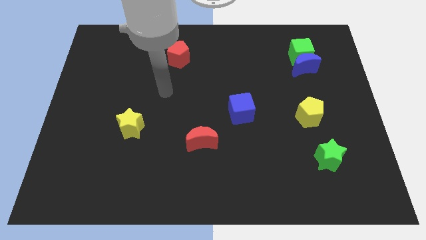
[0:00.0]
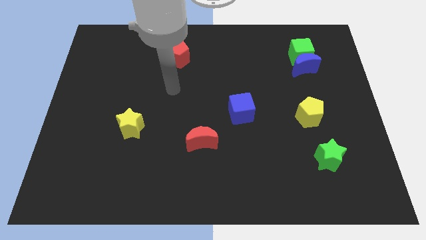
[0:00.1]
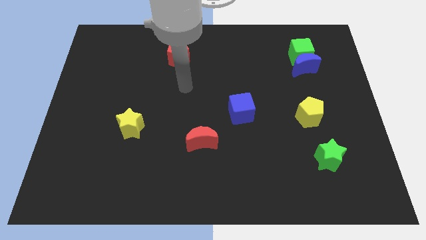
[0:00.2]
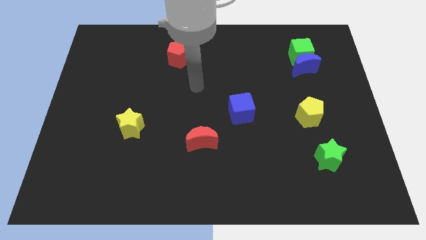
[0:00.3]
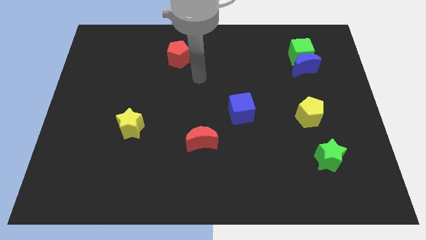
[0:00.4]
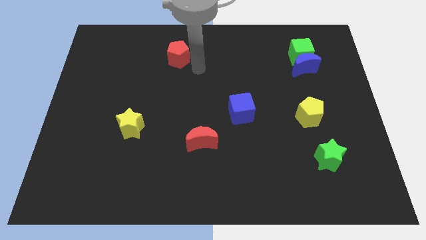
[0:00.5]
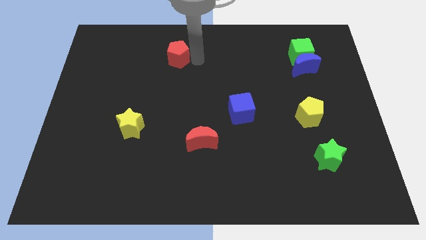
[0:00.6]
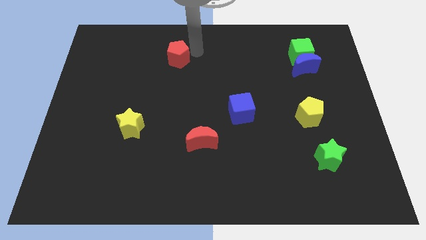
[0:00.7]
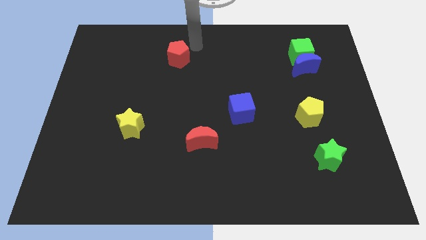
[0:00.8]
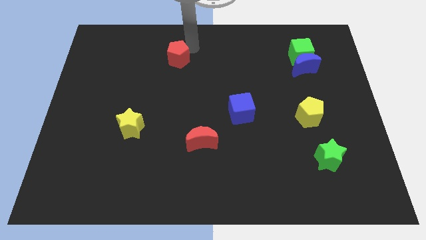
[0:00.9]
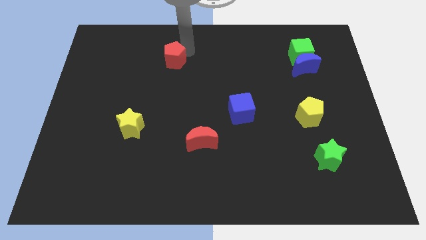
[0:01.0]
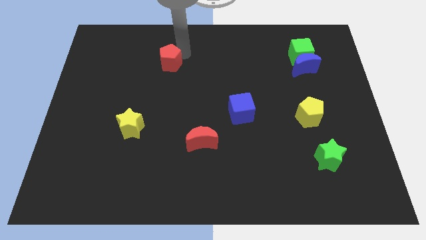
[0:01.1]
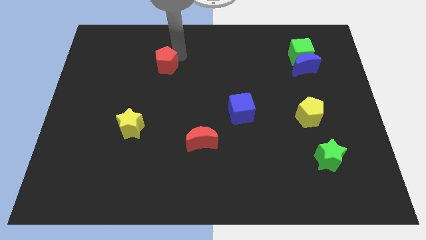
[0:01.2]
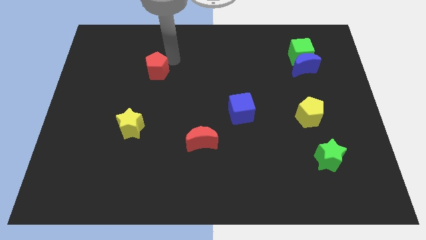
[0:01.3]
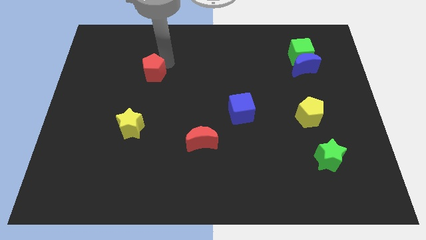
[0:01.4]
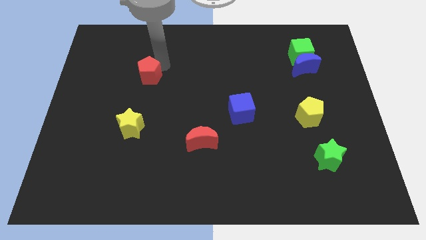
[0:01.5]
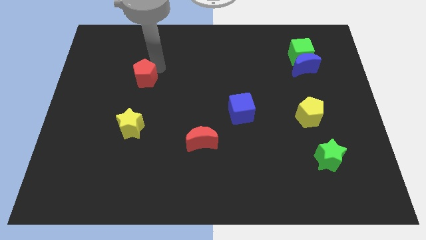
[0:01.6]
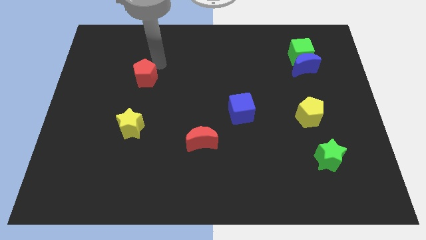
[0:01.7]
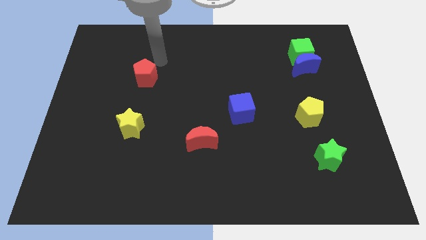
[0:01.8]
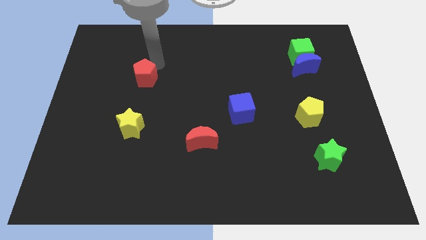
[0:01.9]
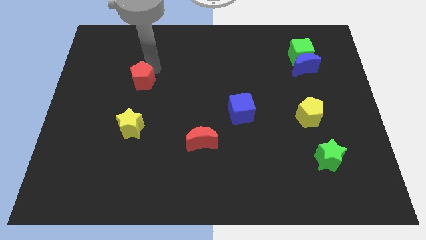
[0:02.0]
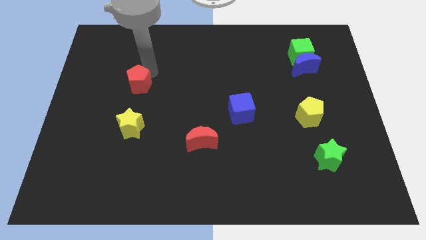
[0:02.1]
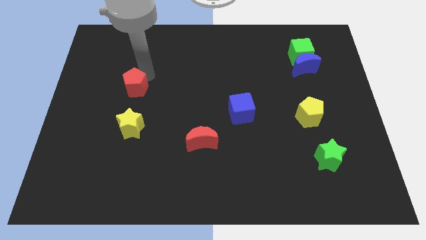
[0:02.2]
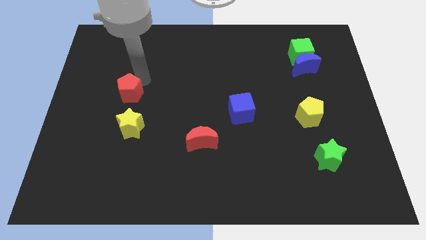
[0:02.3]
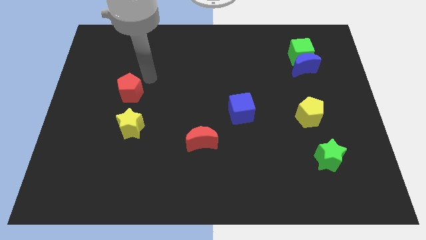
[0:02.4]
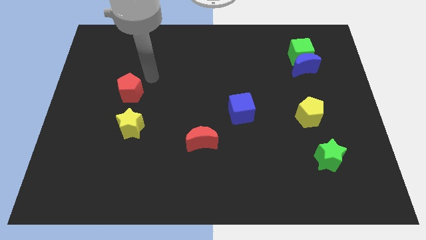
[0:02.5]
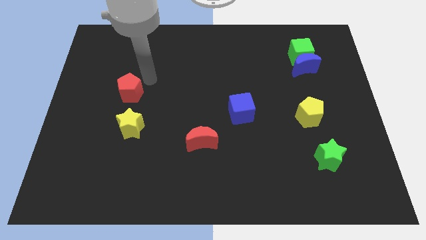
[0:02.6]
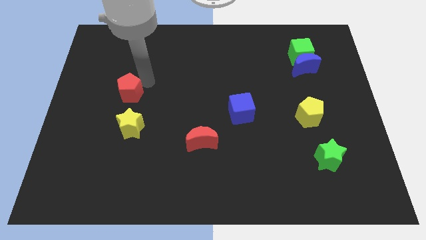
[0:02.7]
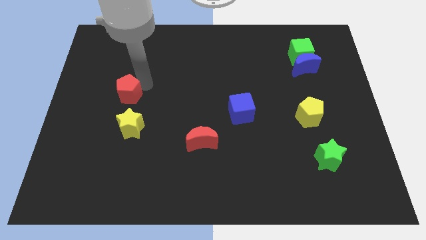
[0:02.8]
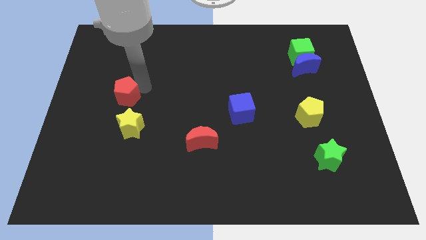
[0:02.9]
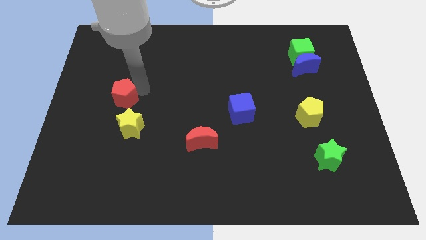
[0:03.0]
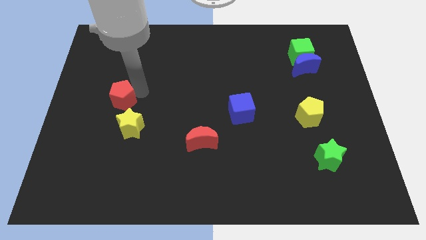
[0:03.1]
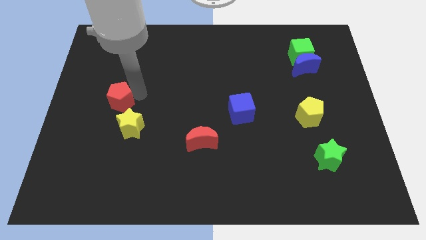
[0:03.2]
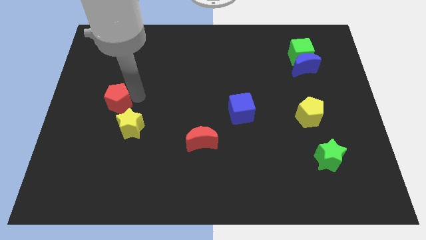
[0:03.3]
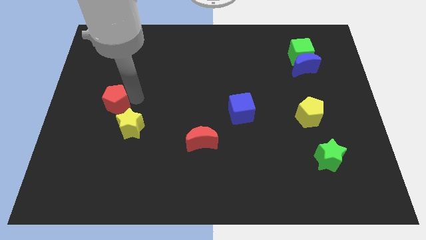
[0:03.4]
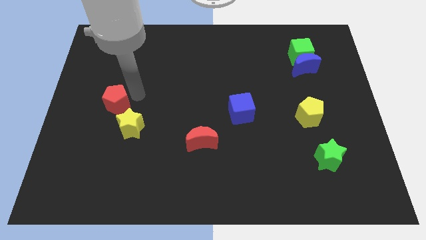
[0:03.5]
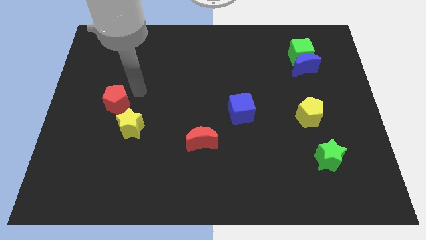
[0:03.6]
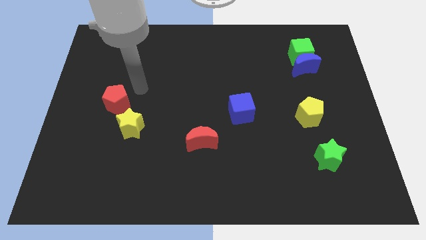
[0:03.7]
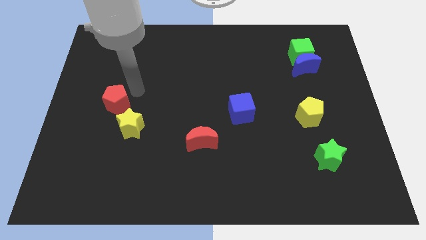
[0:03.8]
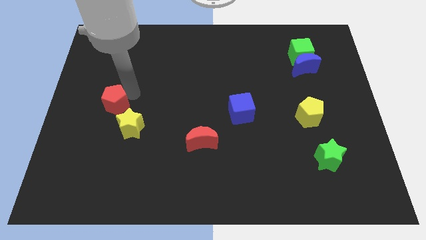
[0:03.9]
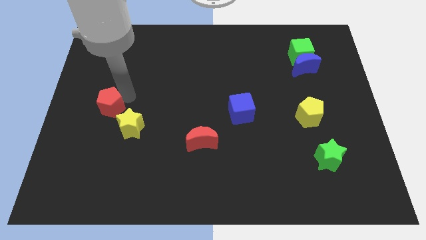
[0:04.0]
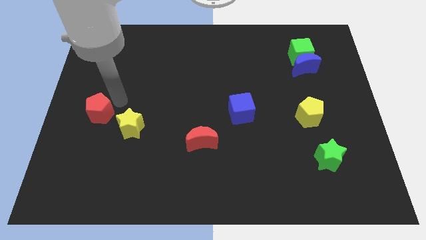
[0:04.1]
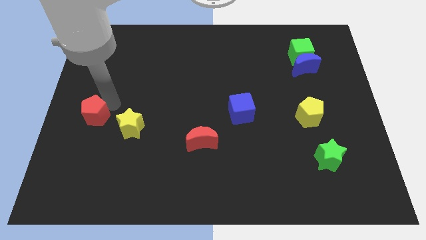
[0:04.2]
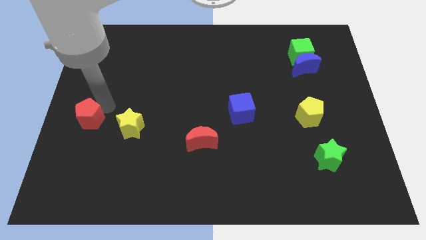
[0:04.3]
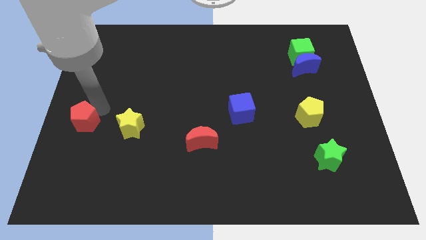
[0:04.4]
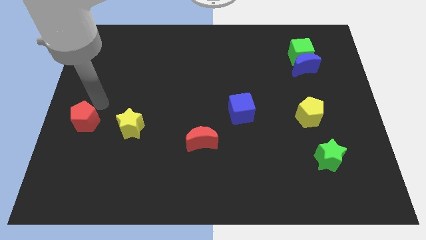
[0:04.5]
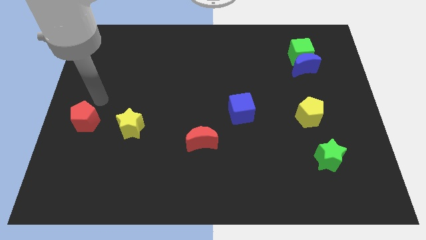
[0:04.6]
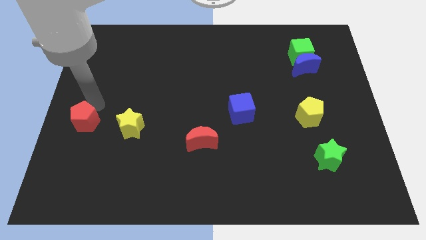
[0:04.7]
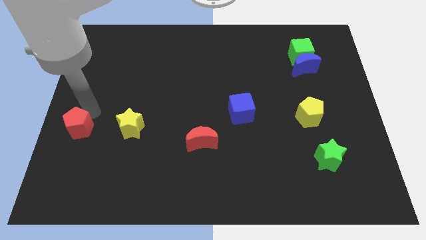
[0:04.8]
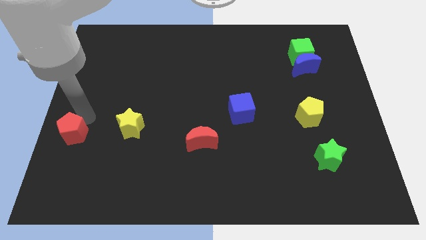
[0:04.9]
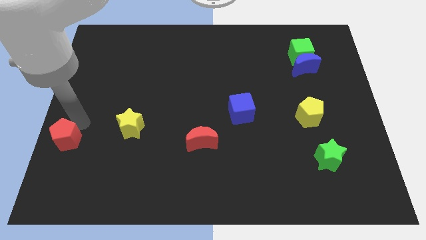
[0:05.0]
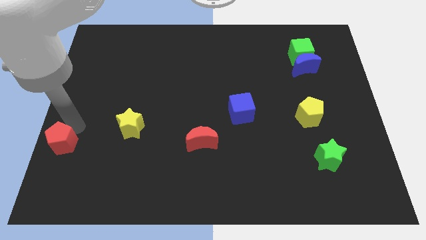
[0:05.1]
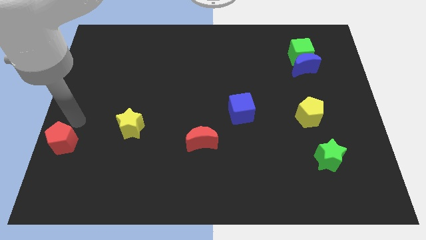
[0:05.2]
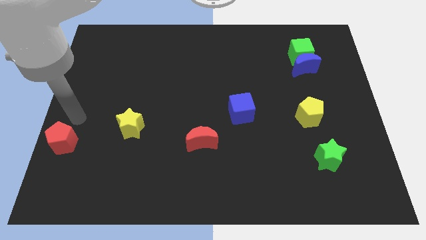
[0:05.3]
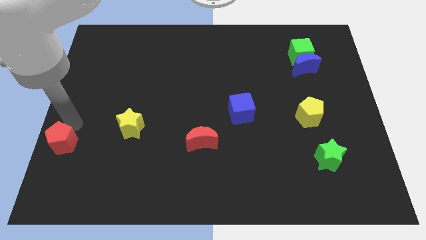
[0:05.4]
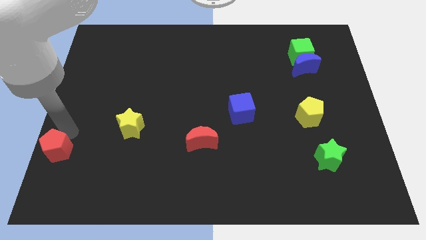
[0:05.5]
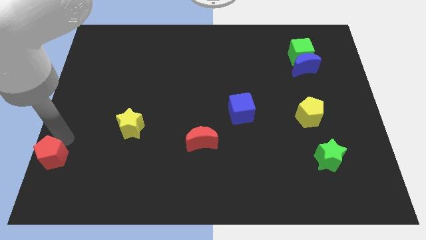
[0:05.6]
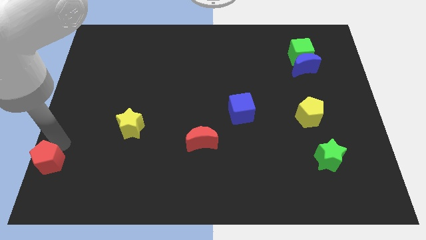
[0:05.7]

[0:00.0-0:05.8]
move the red pentagon to the lower left corner

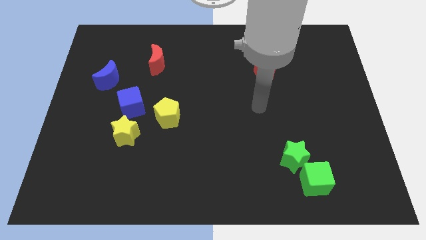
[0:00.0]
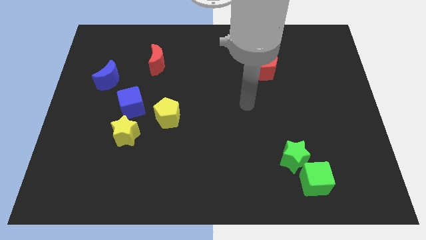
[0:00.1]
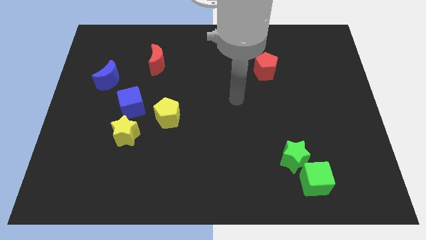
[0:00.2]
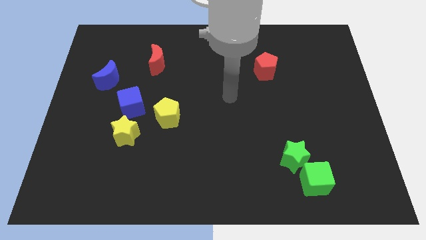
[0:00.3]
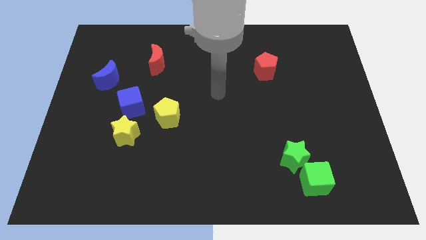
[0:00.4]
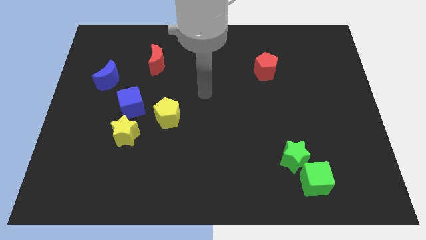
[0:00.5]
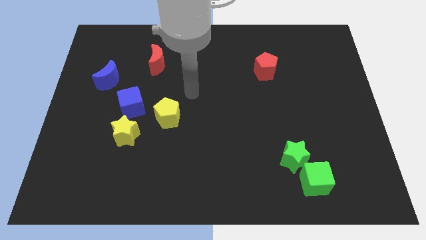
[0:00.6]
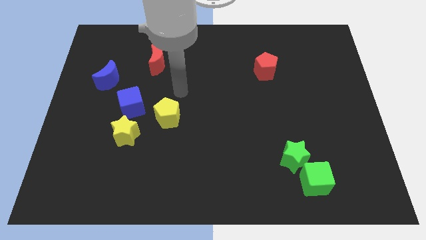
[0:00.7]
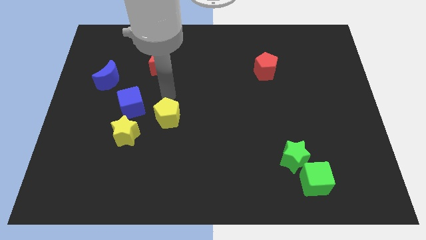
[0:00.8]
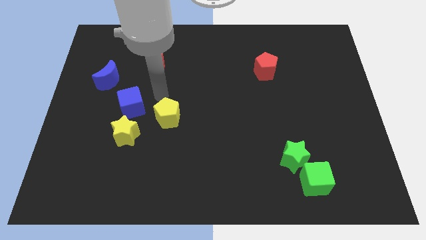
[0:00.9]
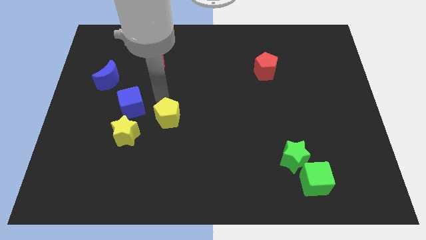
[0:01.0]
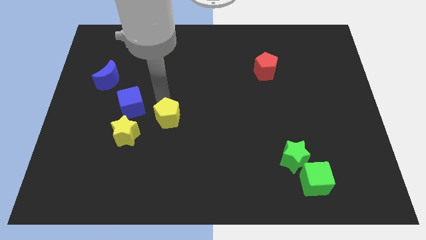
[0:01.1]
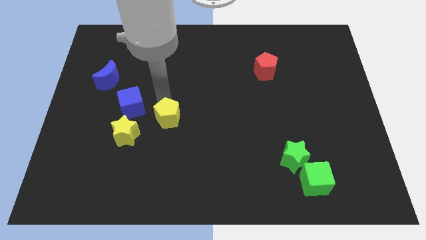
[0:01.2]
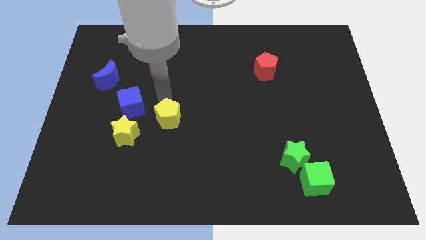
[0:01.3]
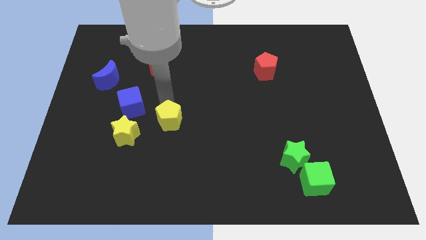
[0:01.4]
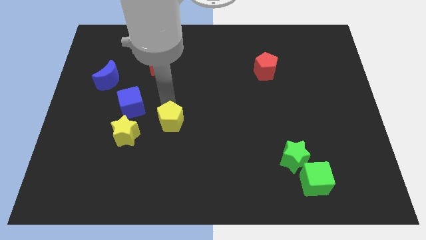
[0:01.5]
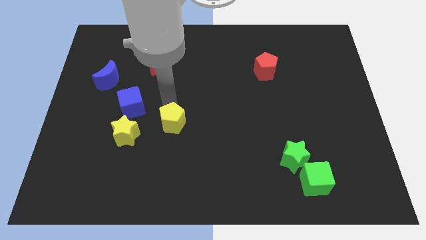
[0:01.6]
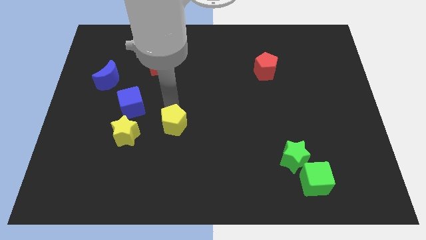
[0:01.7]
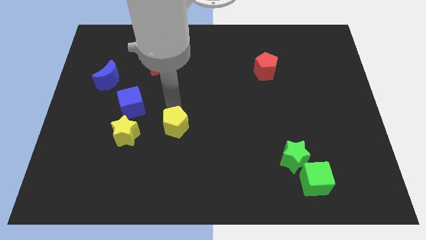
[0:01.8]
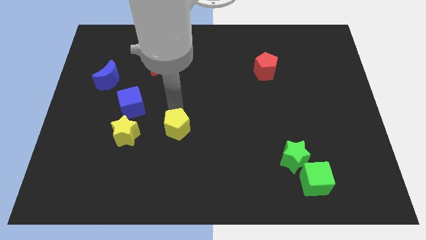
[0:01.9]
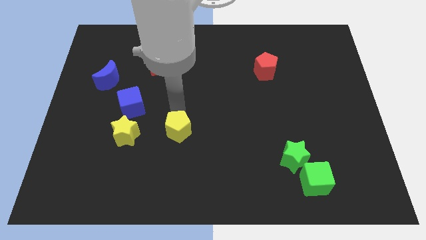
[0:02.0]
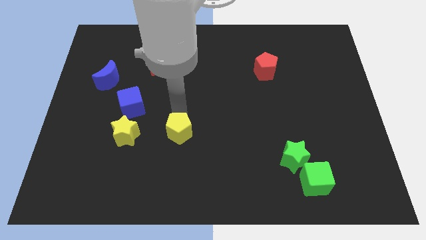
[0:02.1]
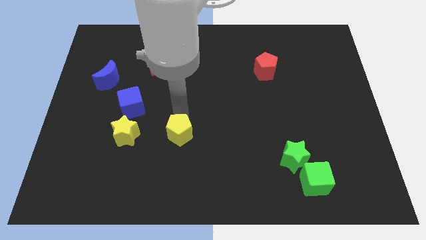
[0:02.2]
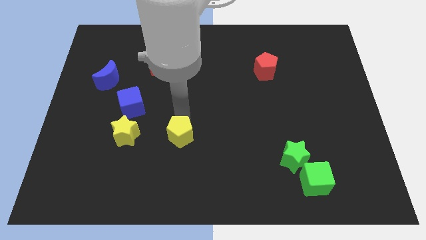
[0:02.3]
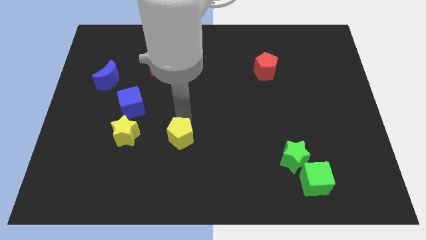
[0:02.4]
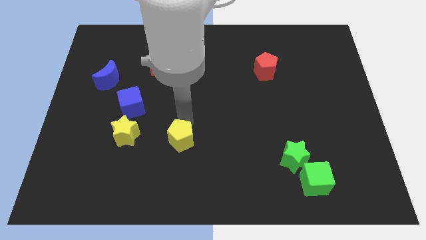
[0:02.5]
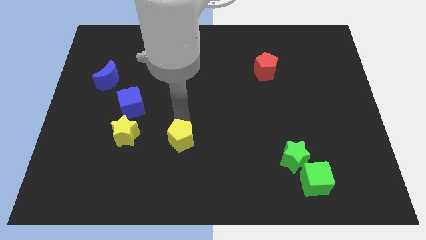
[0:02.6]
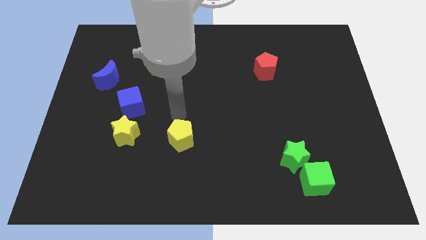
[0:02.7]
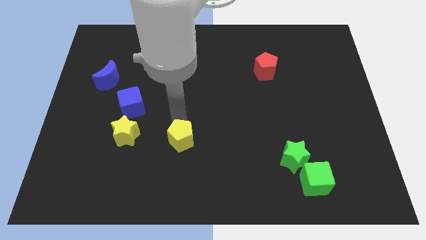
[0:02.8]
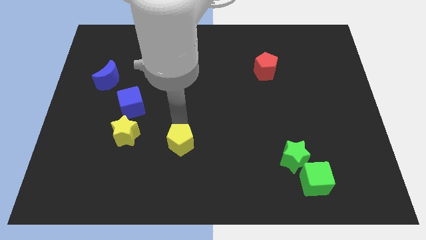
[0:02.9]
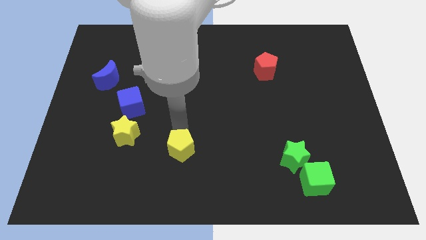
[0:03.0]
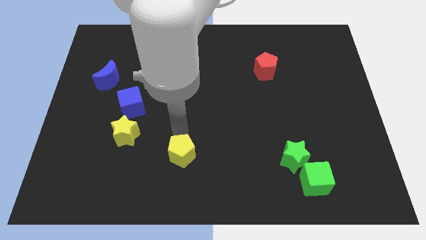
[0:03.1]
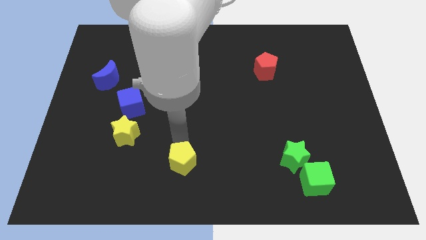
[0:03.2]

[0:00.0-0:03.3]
push the yellow pentagon to the bottom
